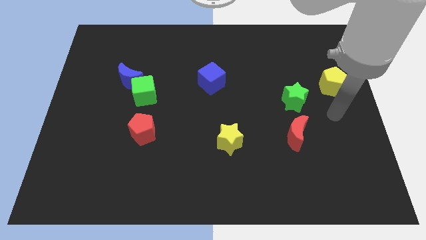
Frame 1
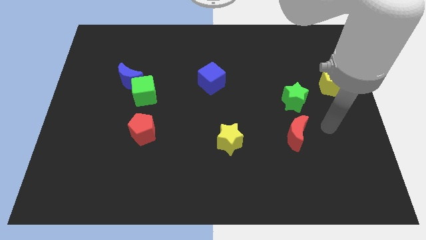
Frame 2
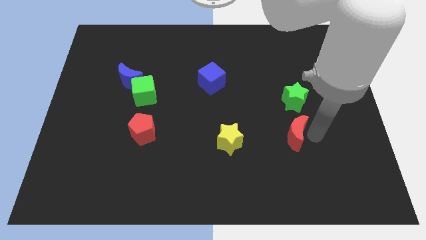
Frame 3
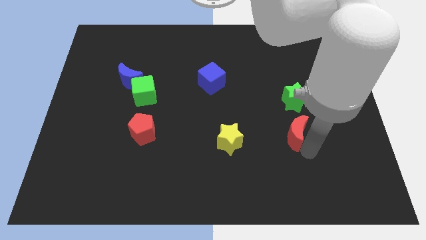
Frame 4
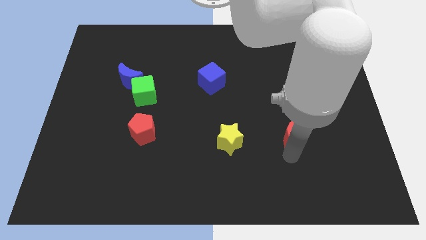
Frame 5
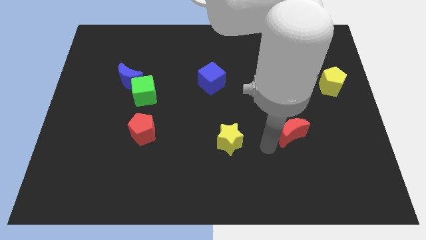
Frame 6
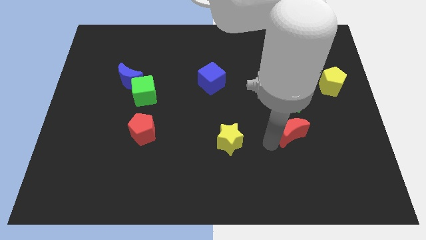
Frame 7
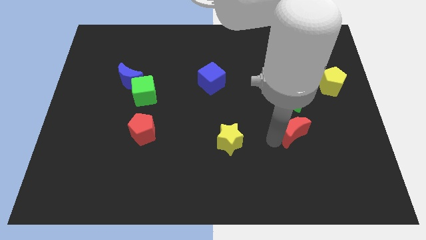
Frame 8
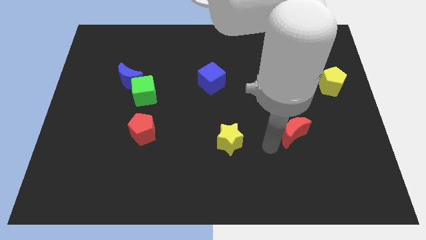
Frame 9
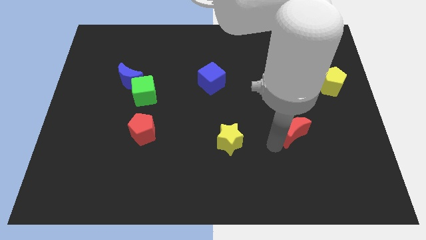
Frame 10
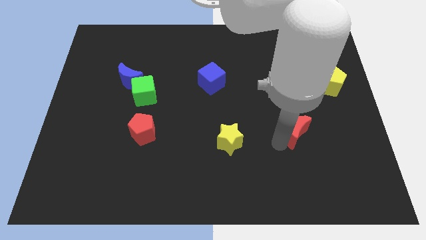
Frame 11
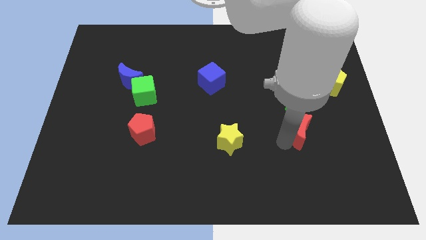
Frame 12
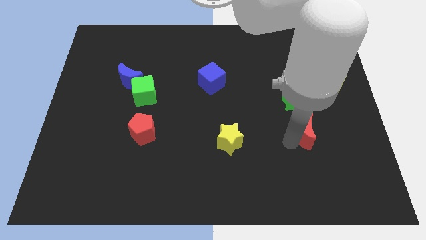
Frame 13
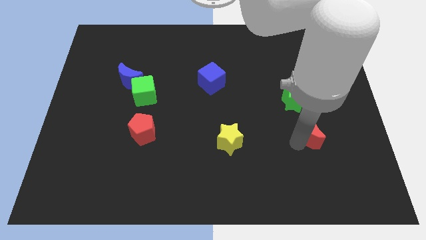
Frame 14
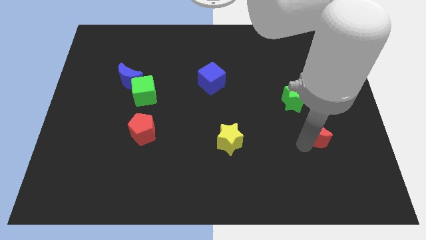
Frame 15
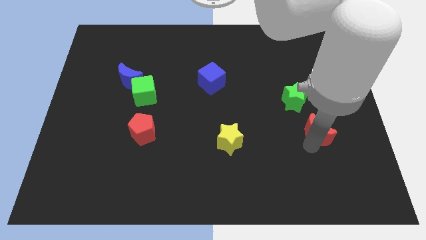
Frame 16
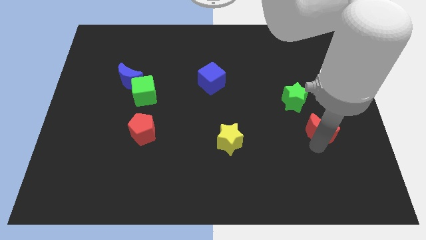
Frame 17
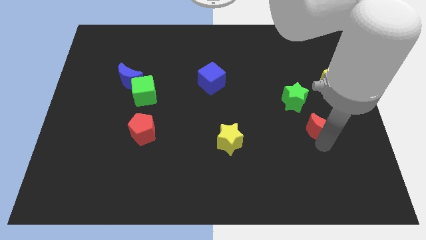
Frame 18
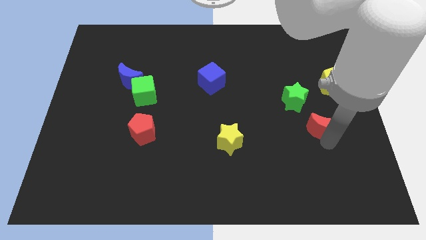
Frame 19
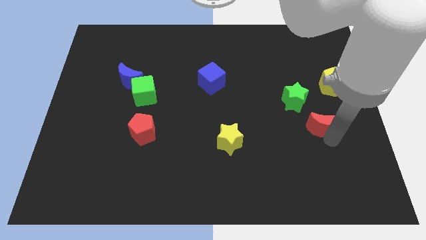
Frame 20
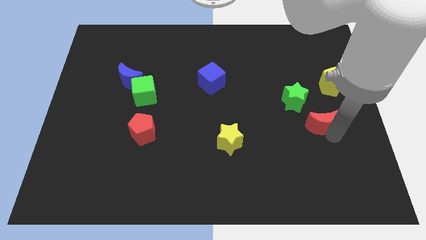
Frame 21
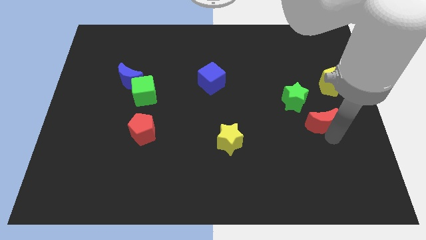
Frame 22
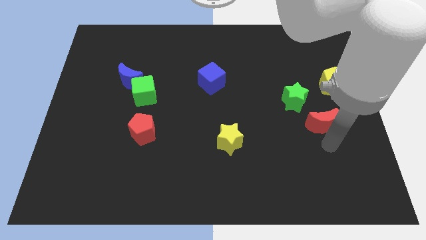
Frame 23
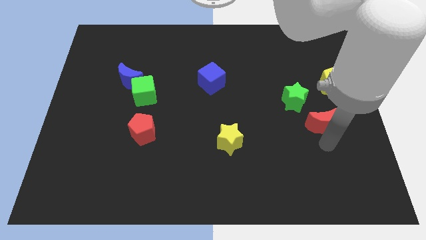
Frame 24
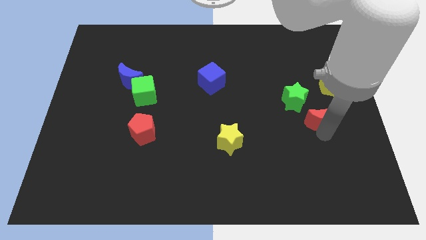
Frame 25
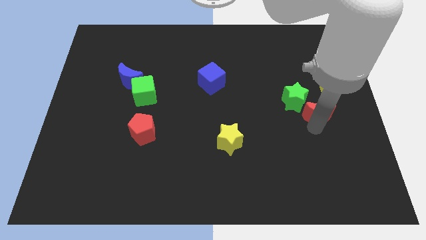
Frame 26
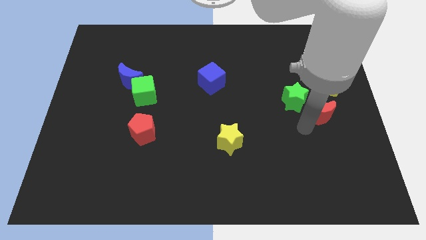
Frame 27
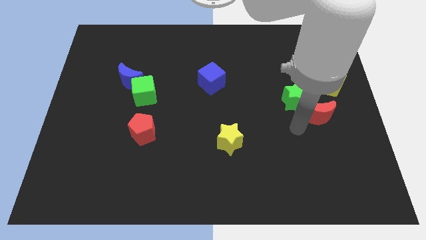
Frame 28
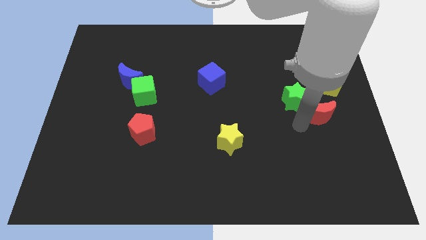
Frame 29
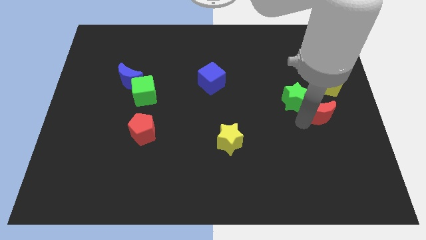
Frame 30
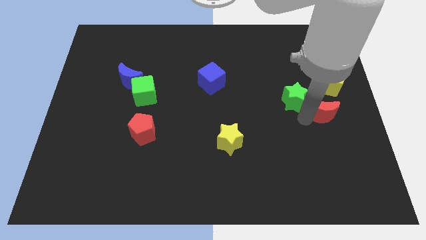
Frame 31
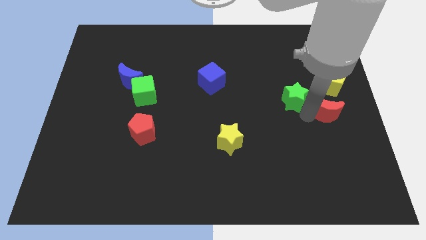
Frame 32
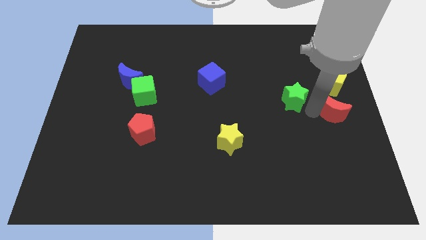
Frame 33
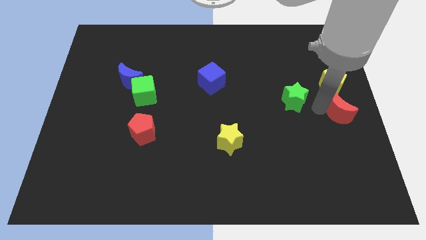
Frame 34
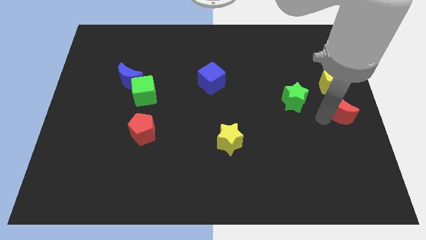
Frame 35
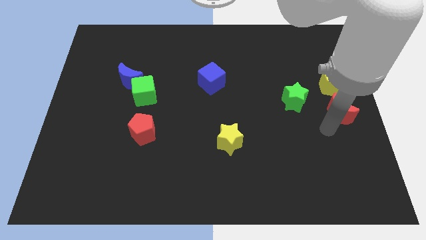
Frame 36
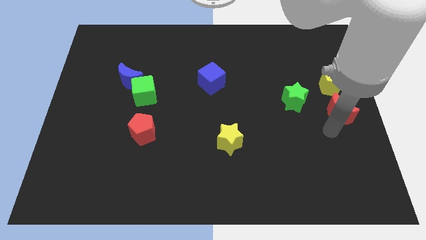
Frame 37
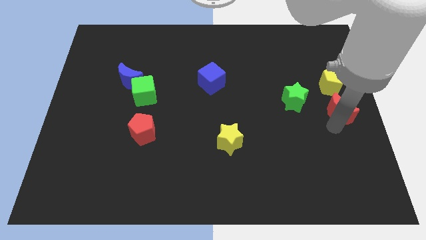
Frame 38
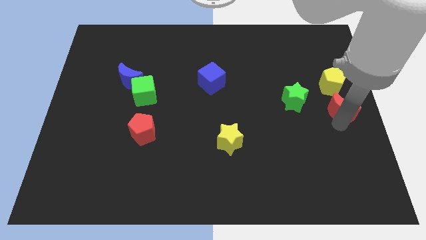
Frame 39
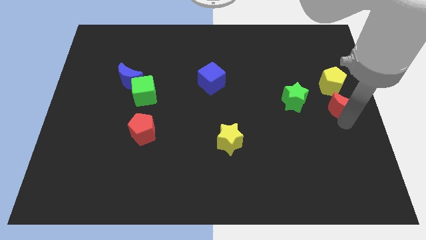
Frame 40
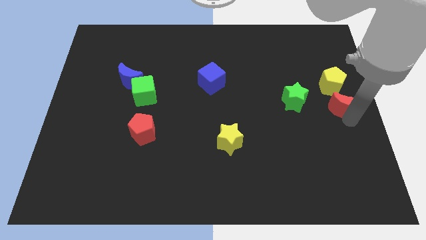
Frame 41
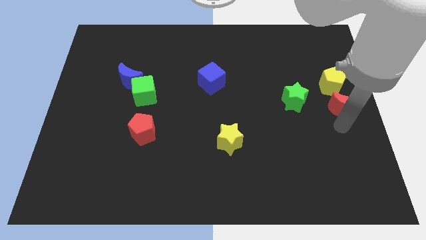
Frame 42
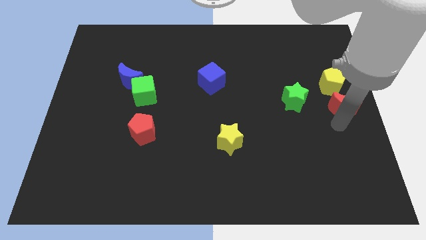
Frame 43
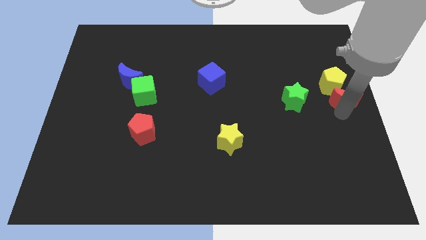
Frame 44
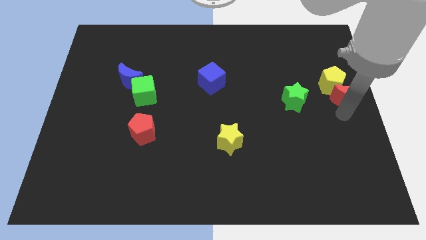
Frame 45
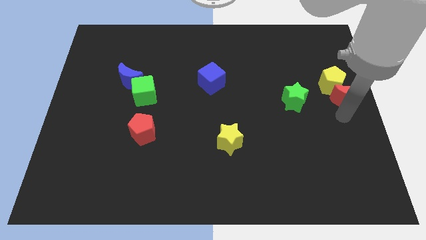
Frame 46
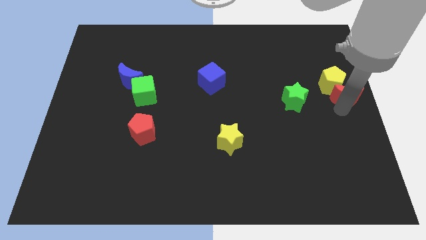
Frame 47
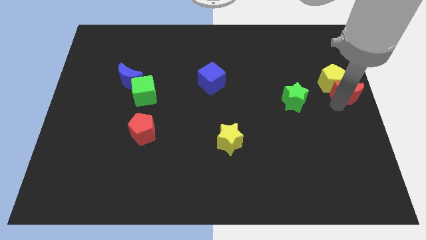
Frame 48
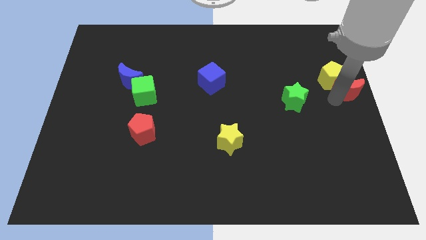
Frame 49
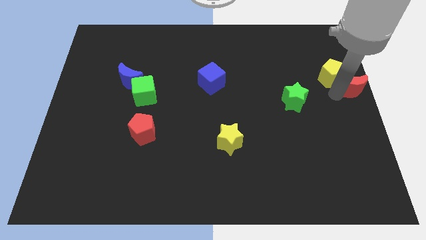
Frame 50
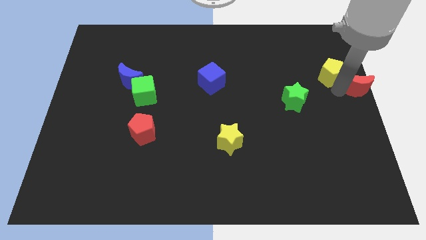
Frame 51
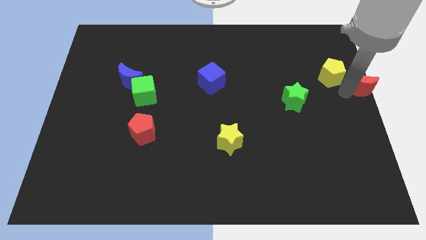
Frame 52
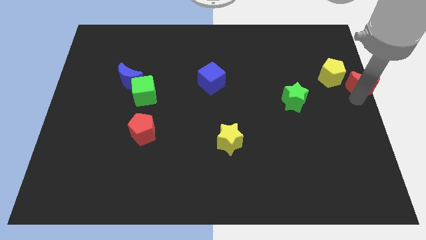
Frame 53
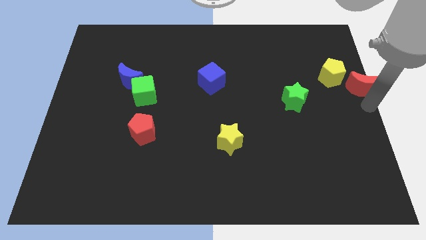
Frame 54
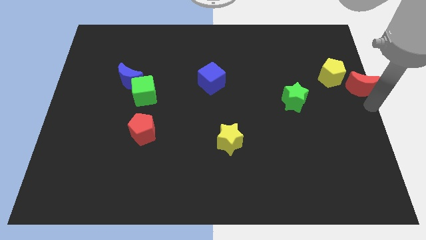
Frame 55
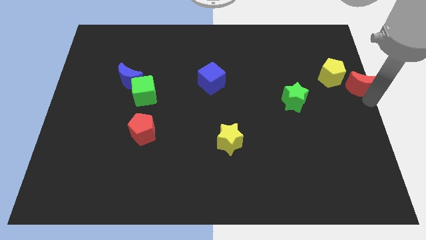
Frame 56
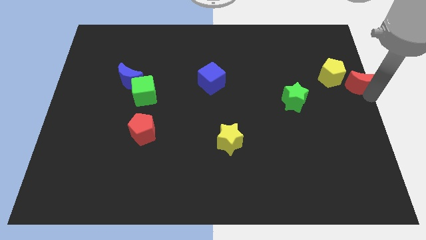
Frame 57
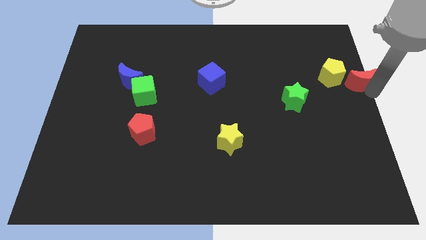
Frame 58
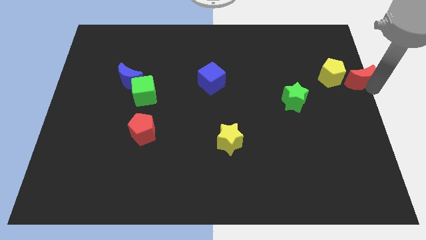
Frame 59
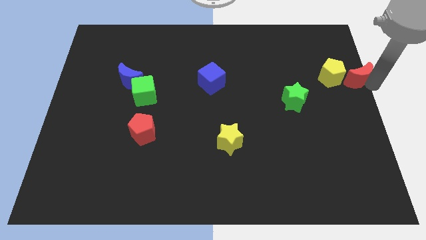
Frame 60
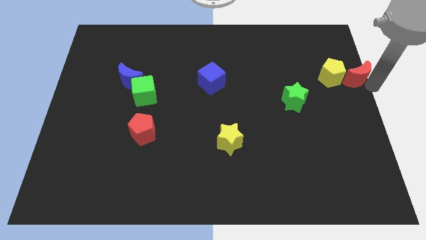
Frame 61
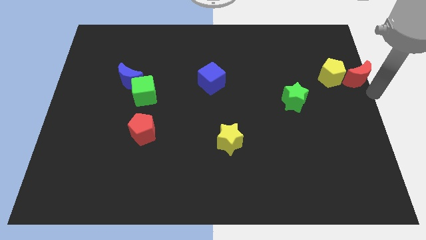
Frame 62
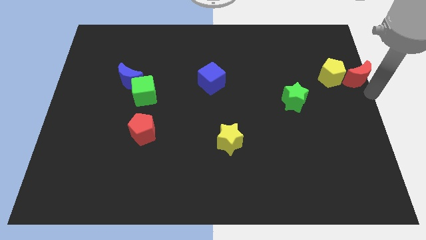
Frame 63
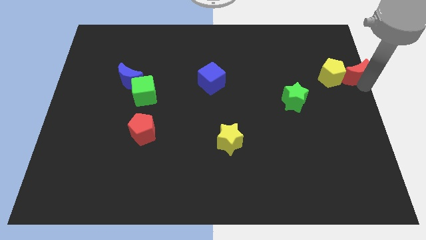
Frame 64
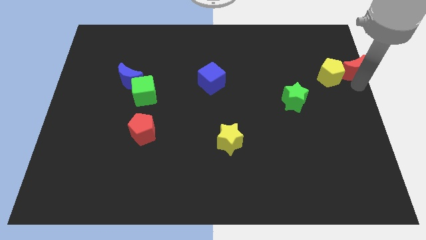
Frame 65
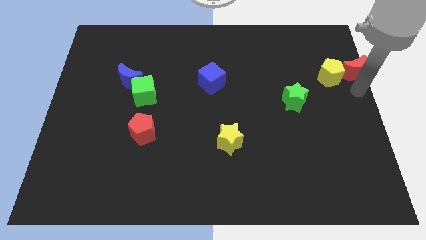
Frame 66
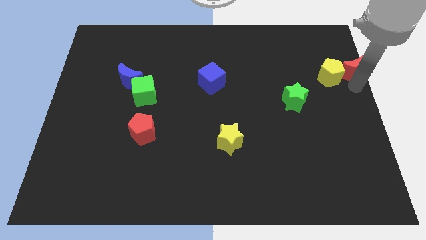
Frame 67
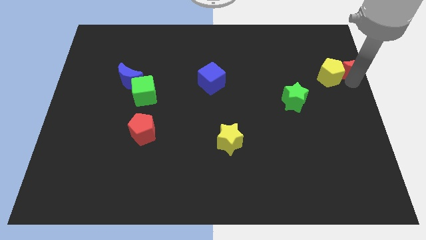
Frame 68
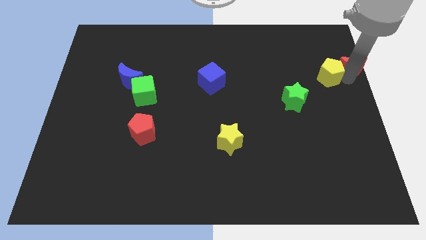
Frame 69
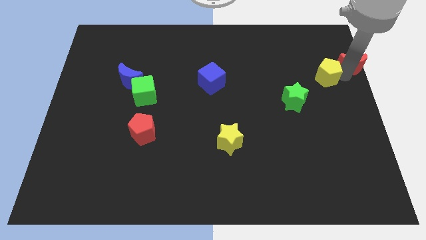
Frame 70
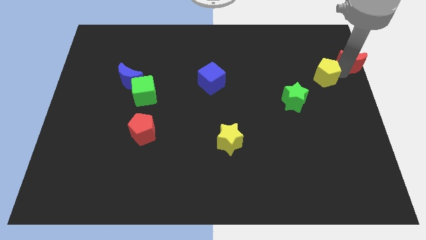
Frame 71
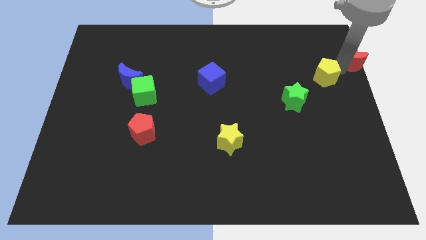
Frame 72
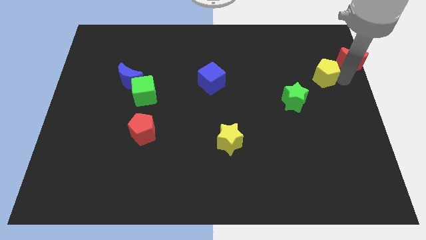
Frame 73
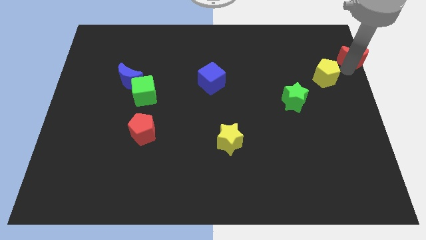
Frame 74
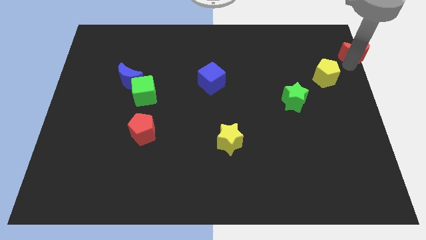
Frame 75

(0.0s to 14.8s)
slide the red moon to the top right

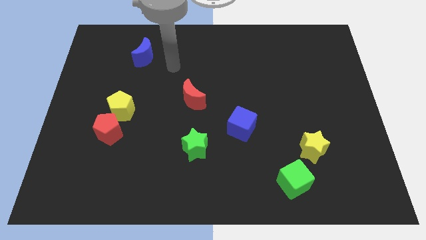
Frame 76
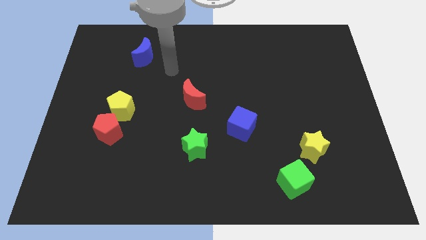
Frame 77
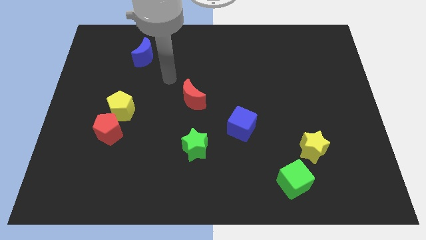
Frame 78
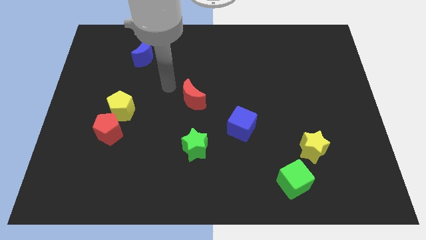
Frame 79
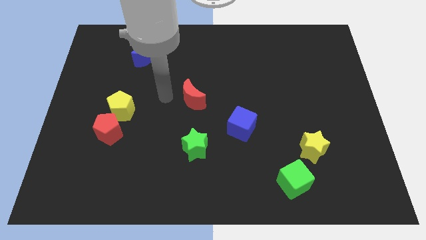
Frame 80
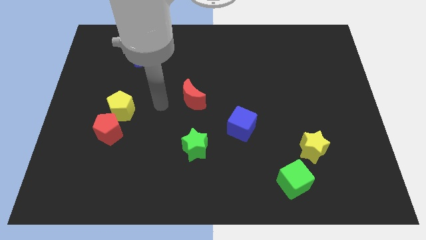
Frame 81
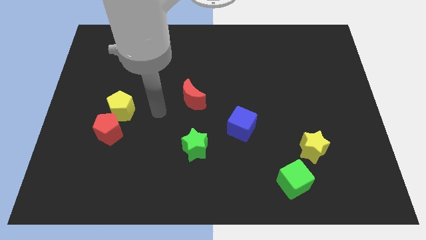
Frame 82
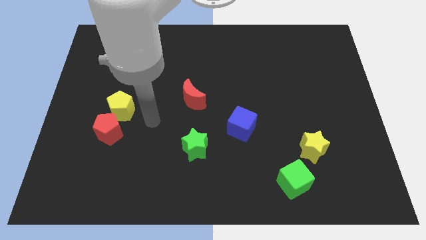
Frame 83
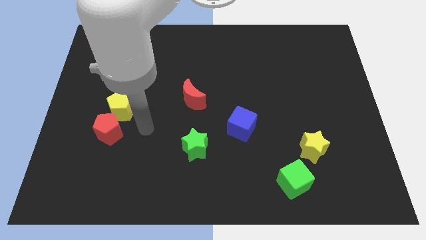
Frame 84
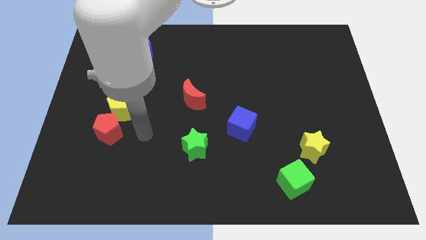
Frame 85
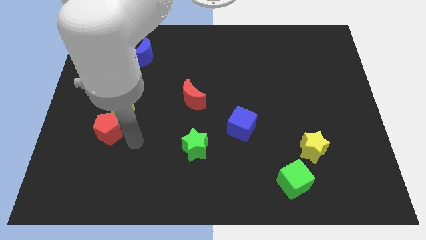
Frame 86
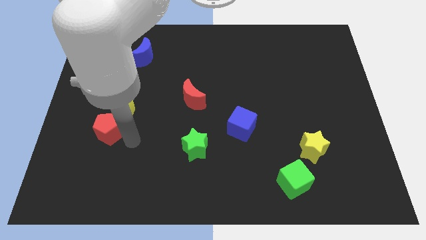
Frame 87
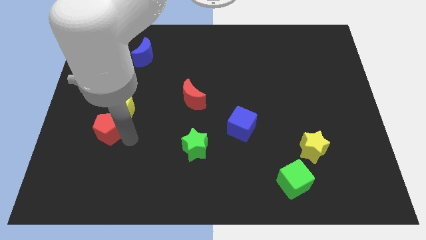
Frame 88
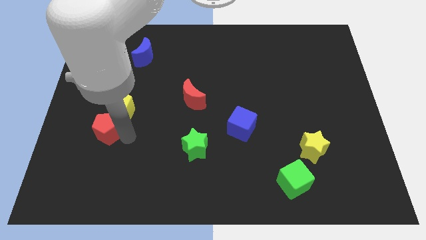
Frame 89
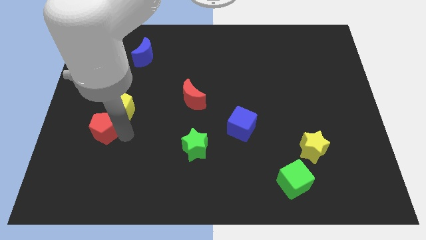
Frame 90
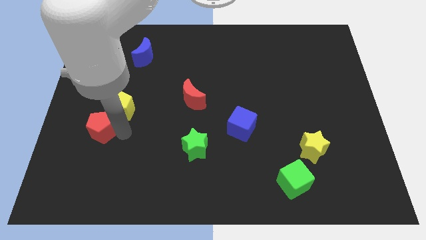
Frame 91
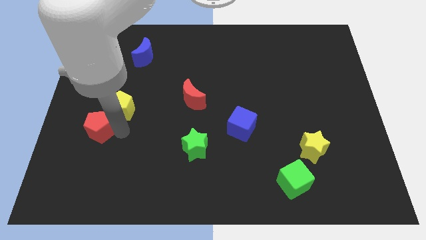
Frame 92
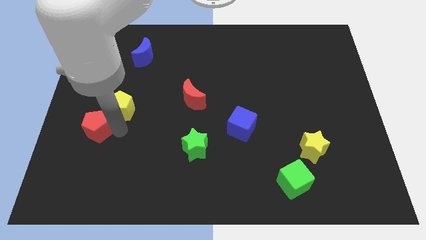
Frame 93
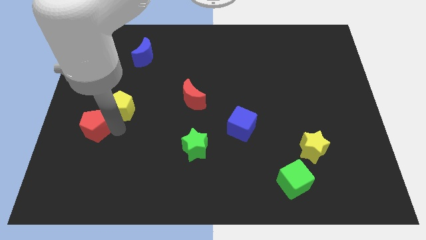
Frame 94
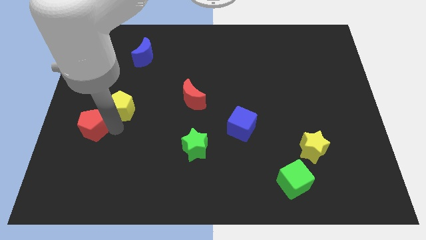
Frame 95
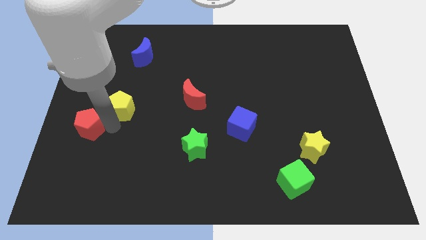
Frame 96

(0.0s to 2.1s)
move the red pentagon to the center left
